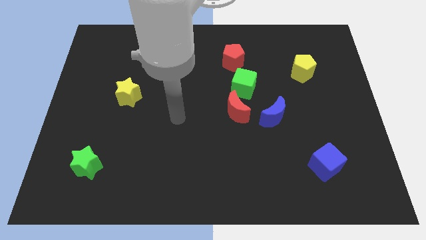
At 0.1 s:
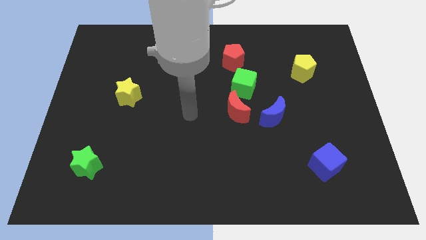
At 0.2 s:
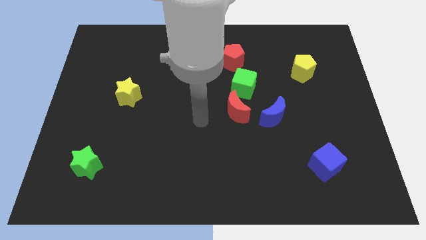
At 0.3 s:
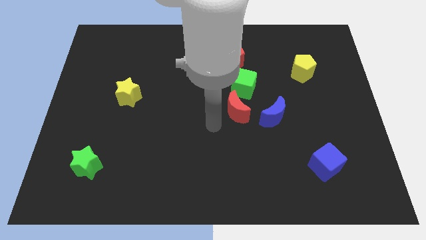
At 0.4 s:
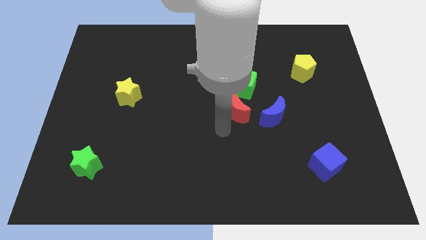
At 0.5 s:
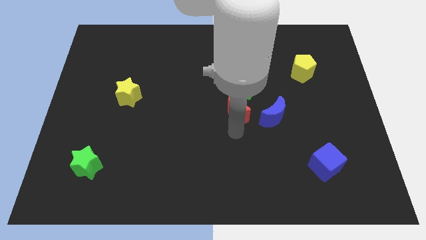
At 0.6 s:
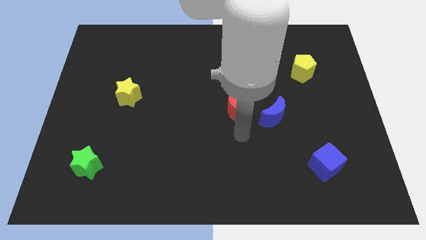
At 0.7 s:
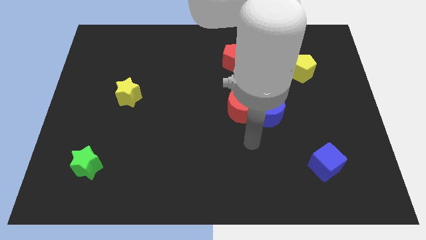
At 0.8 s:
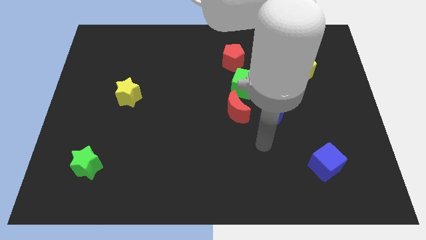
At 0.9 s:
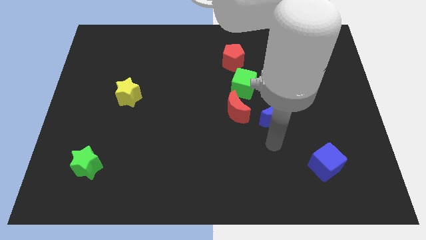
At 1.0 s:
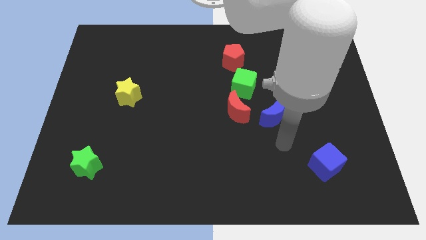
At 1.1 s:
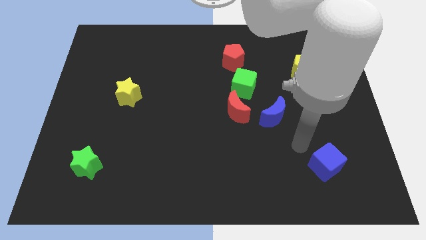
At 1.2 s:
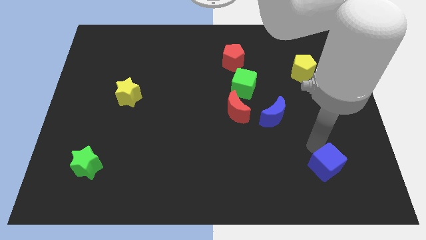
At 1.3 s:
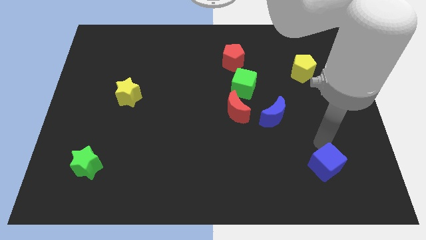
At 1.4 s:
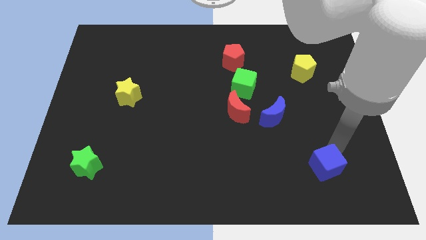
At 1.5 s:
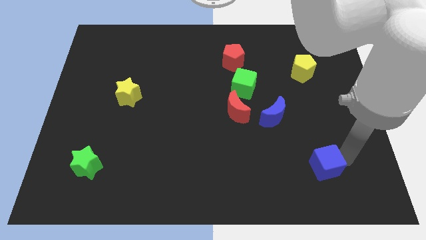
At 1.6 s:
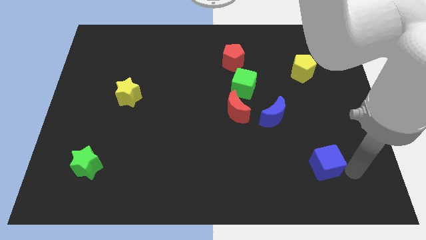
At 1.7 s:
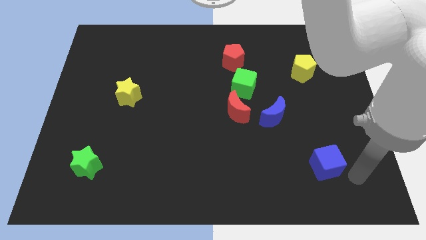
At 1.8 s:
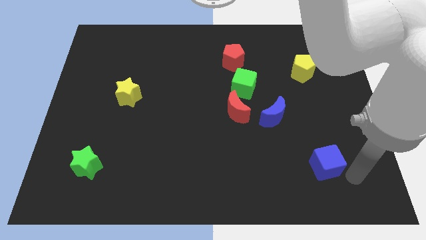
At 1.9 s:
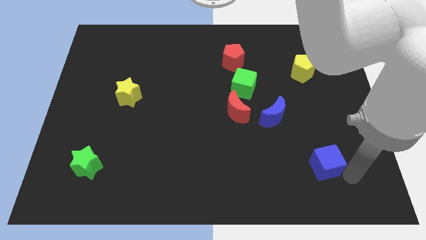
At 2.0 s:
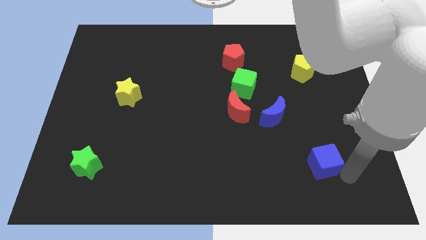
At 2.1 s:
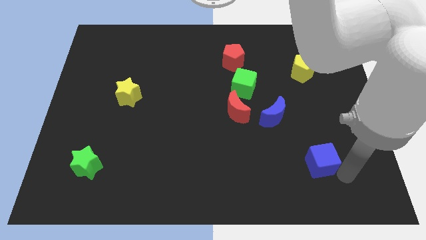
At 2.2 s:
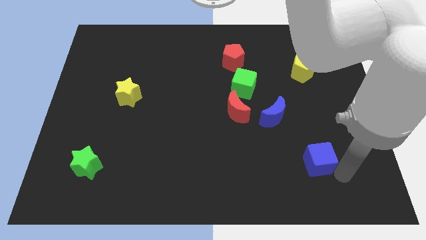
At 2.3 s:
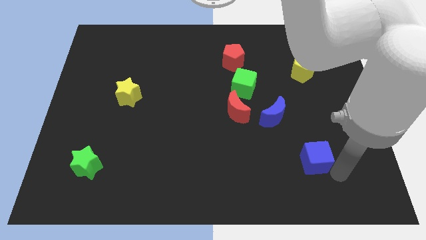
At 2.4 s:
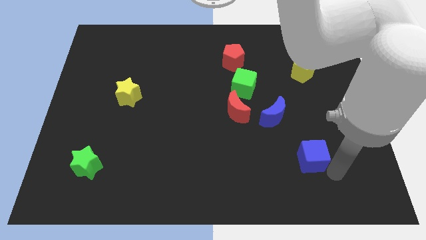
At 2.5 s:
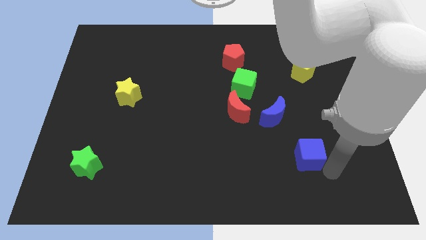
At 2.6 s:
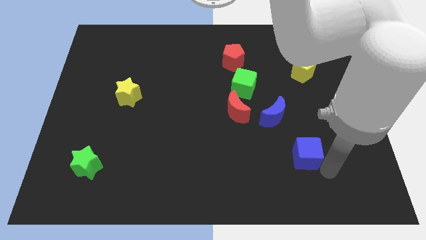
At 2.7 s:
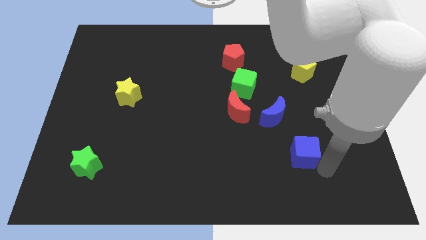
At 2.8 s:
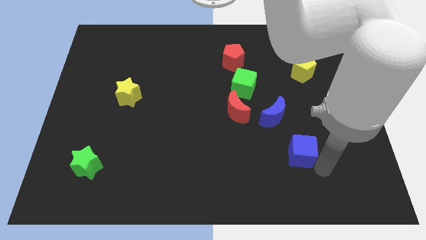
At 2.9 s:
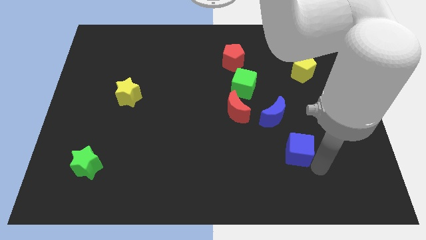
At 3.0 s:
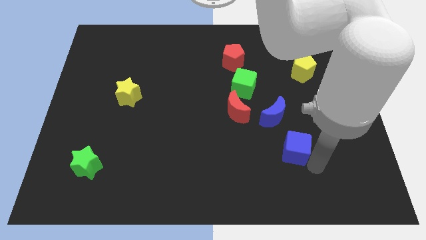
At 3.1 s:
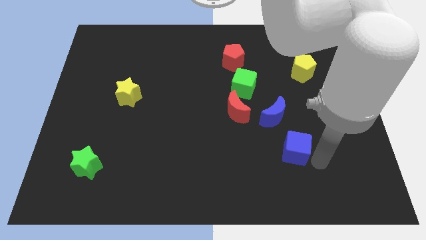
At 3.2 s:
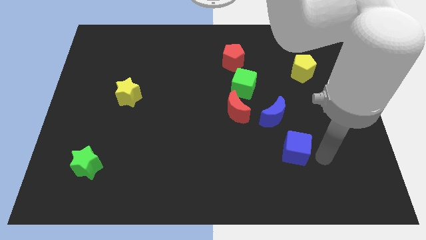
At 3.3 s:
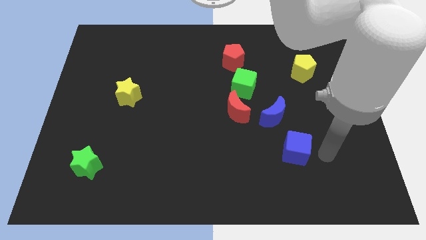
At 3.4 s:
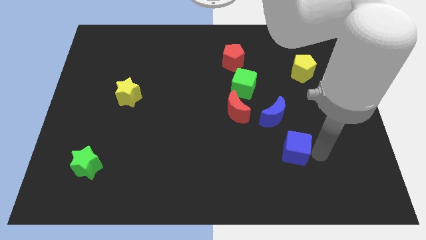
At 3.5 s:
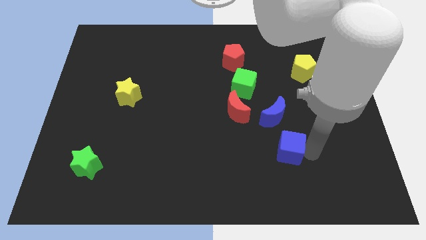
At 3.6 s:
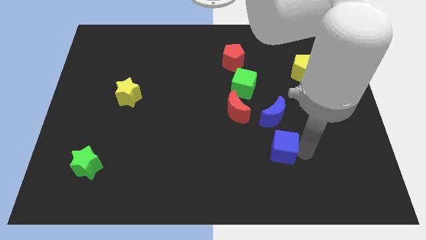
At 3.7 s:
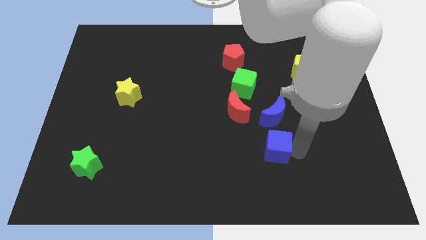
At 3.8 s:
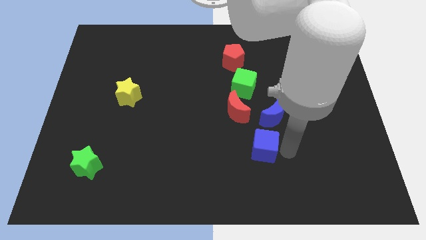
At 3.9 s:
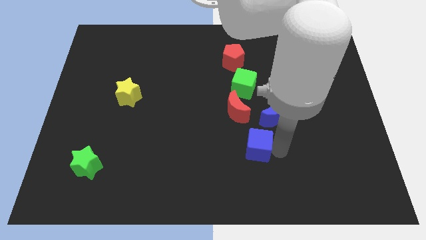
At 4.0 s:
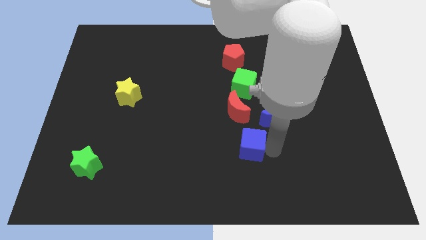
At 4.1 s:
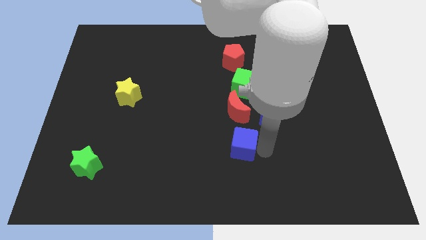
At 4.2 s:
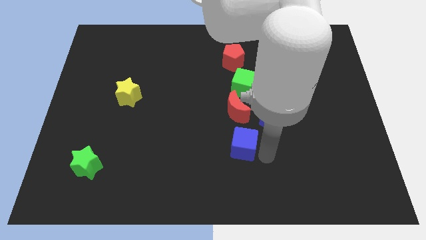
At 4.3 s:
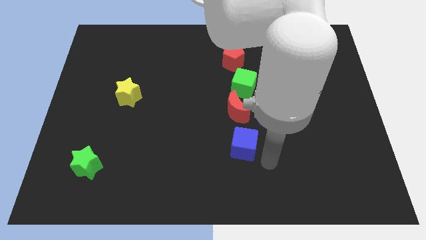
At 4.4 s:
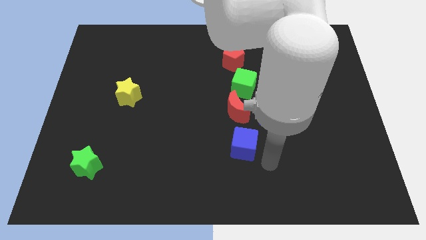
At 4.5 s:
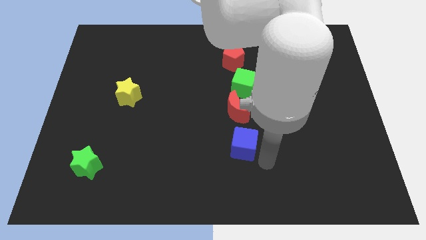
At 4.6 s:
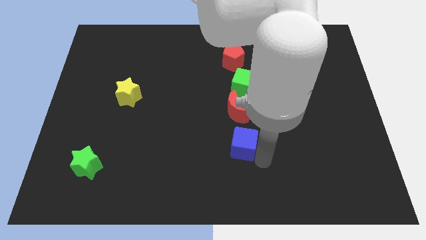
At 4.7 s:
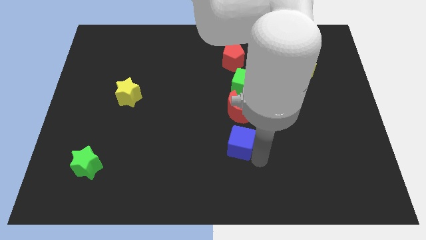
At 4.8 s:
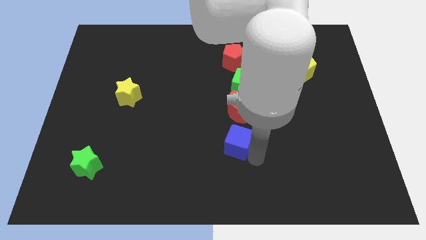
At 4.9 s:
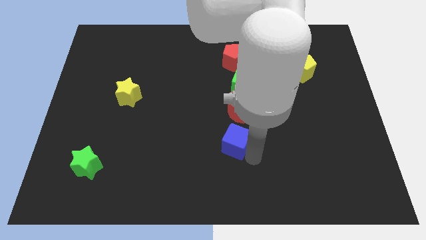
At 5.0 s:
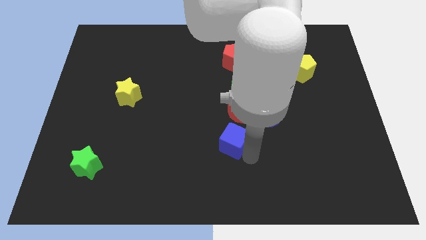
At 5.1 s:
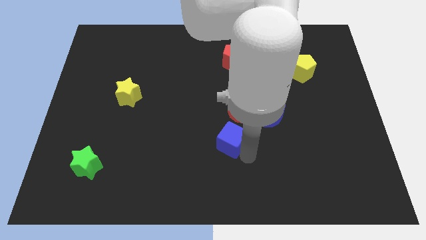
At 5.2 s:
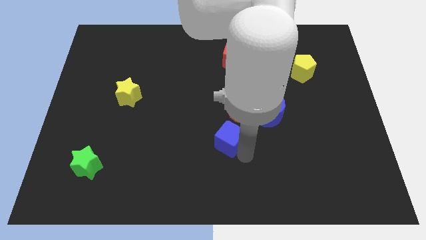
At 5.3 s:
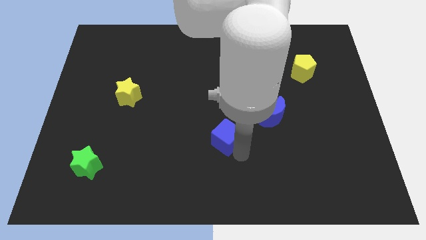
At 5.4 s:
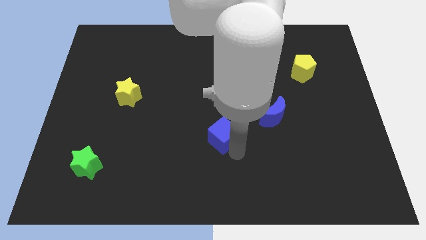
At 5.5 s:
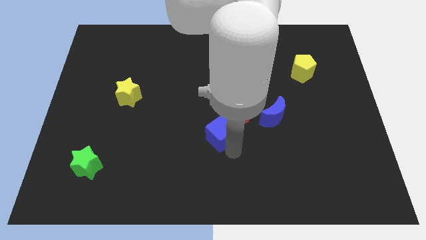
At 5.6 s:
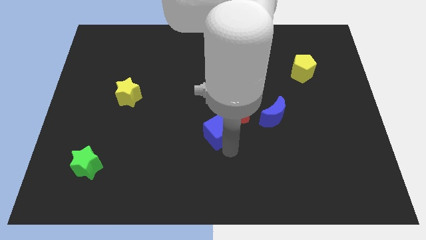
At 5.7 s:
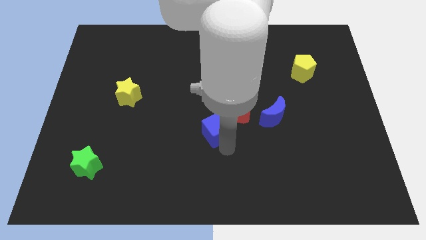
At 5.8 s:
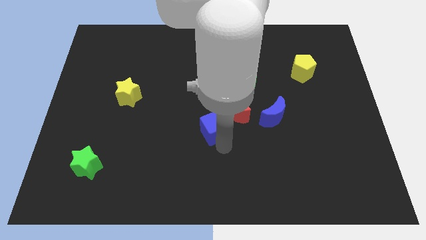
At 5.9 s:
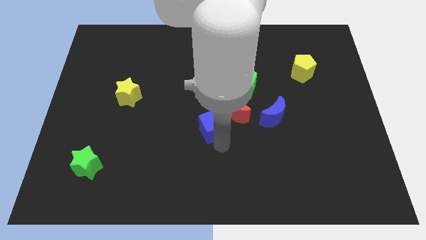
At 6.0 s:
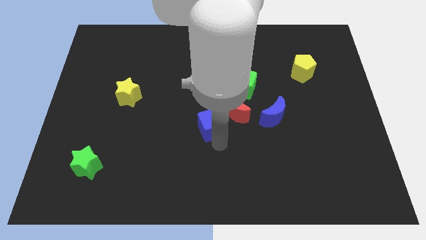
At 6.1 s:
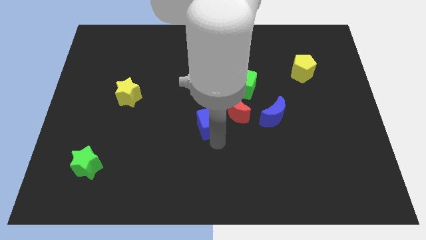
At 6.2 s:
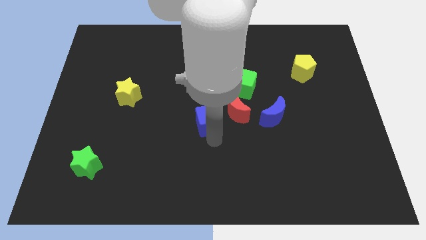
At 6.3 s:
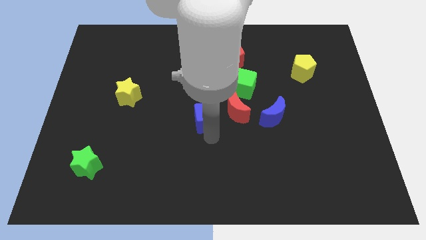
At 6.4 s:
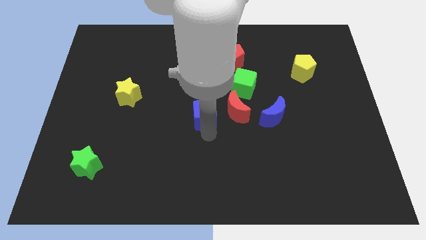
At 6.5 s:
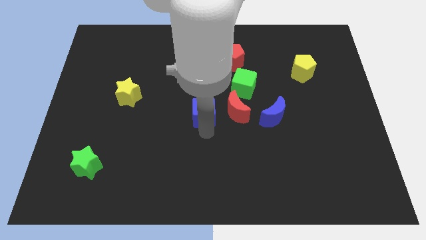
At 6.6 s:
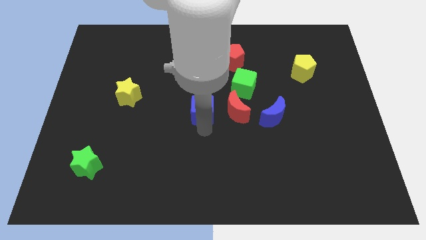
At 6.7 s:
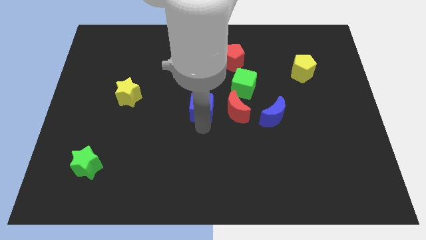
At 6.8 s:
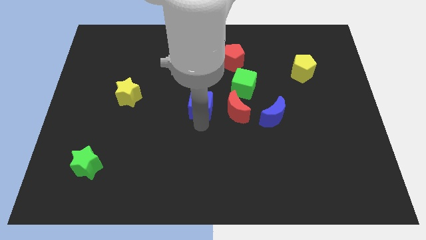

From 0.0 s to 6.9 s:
put the blue cube to the top left of the red moon
